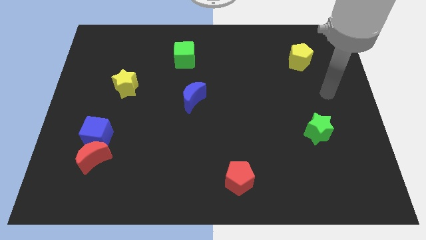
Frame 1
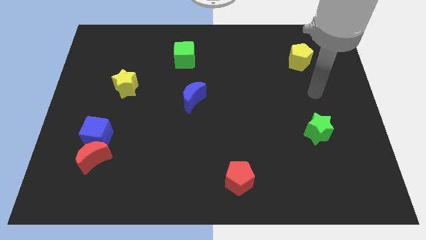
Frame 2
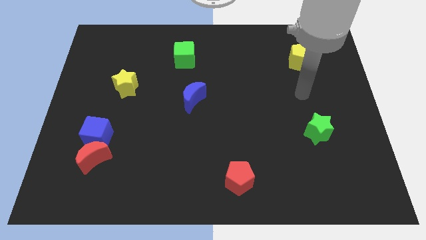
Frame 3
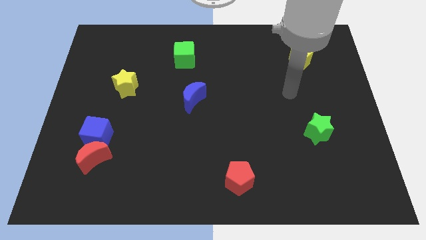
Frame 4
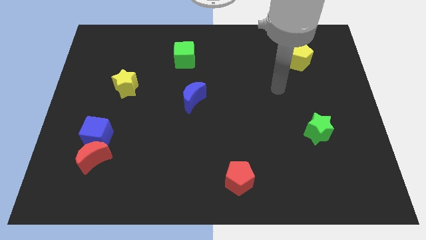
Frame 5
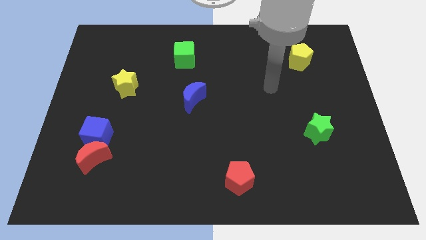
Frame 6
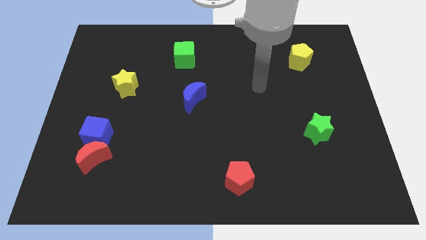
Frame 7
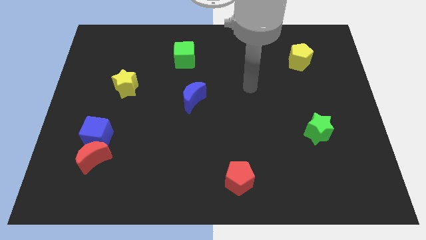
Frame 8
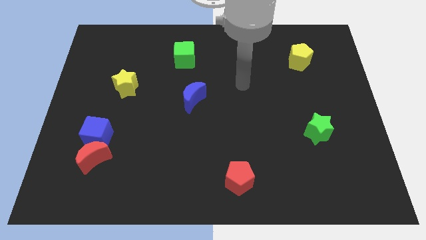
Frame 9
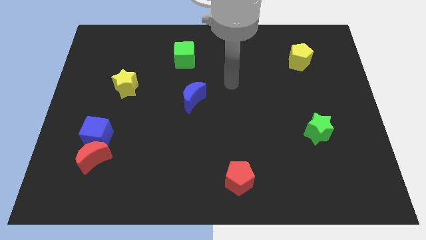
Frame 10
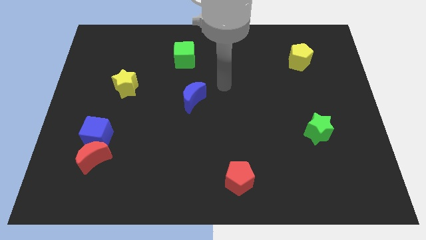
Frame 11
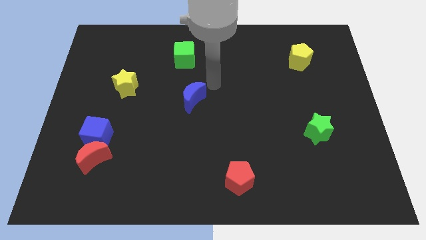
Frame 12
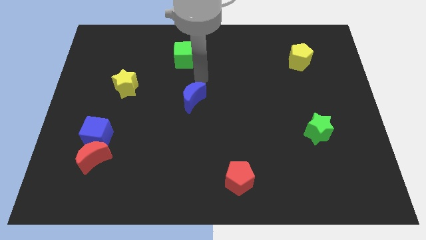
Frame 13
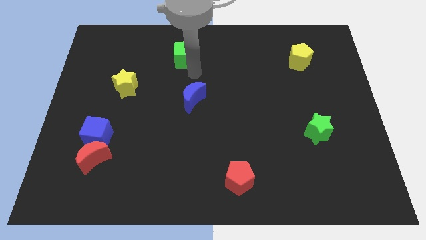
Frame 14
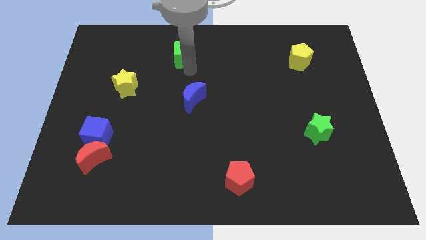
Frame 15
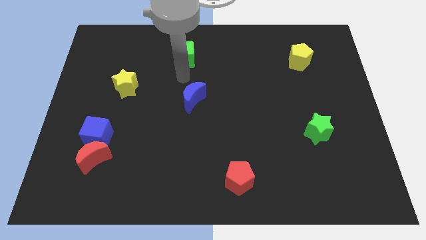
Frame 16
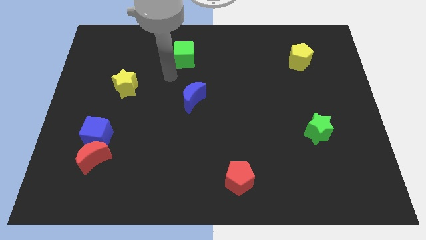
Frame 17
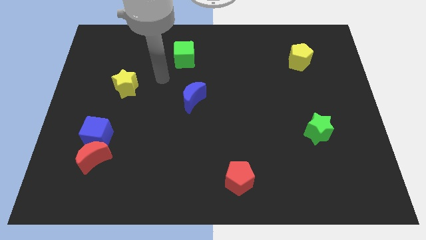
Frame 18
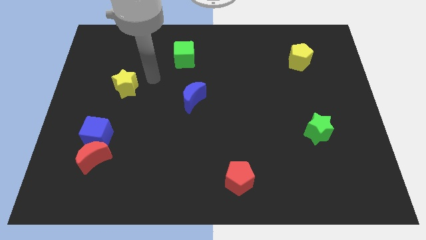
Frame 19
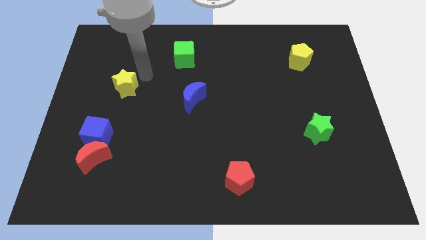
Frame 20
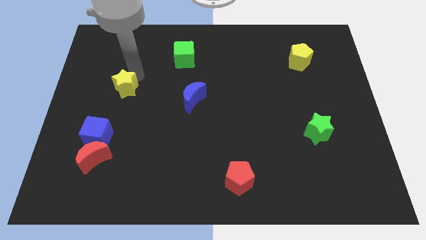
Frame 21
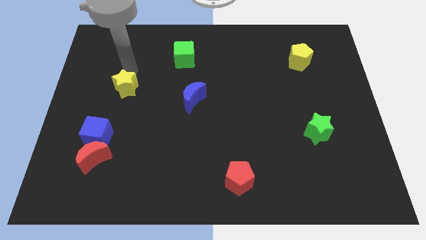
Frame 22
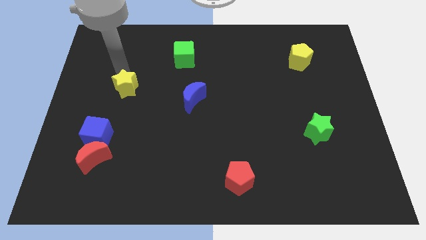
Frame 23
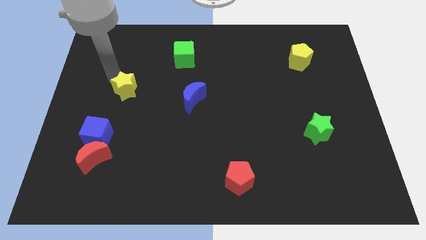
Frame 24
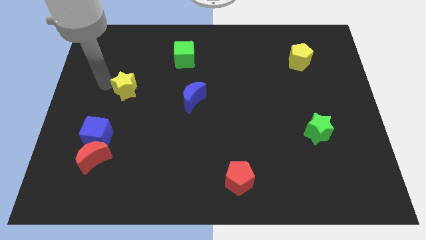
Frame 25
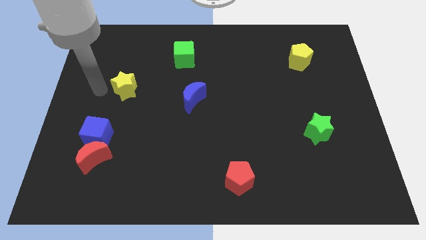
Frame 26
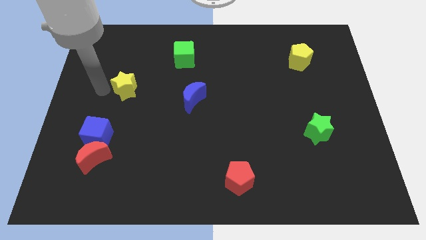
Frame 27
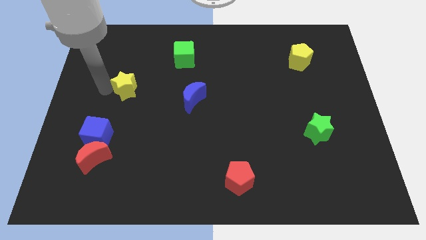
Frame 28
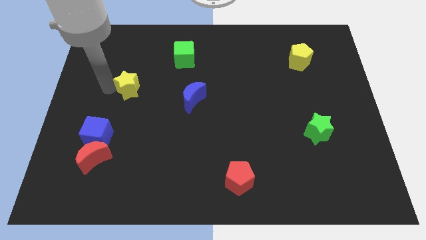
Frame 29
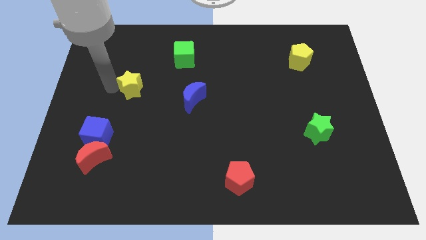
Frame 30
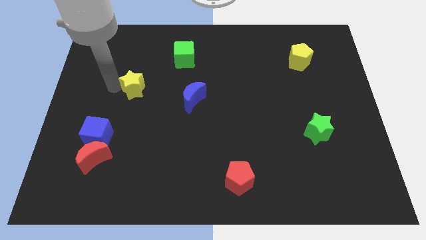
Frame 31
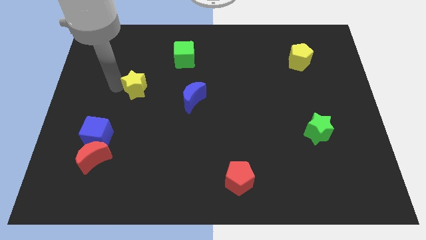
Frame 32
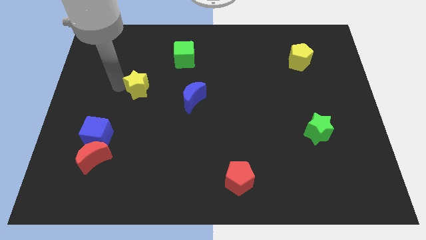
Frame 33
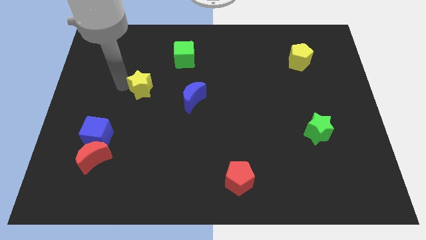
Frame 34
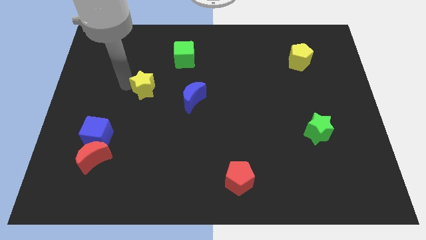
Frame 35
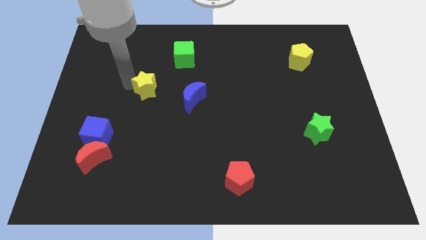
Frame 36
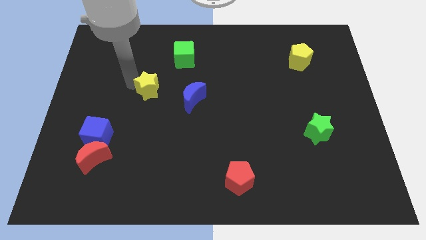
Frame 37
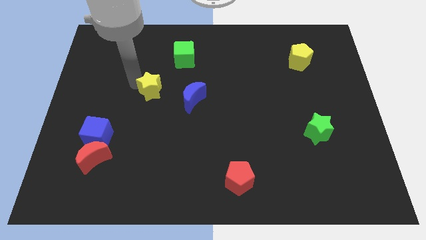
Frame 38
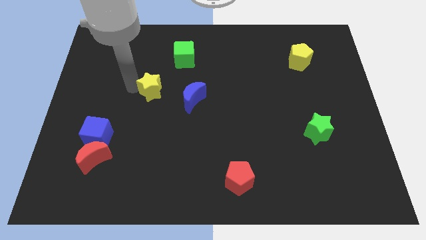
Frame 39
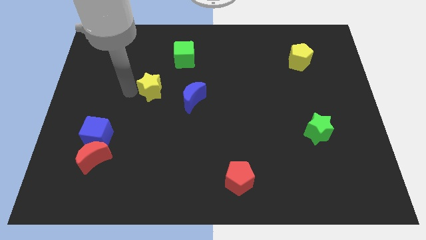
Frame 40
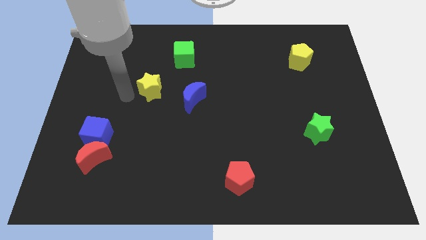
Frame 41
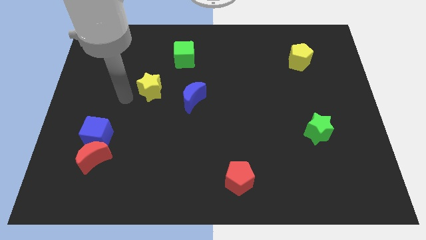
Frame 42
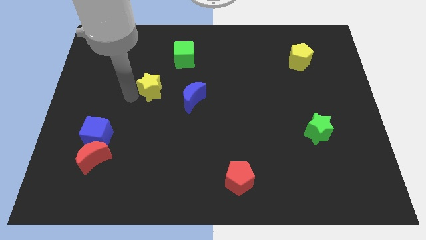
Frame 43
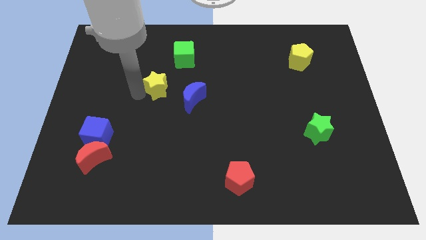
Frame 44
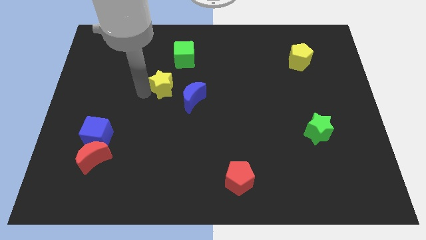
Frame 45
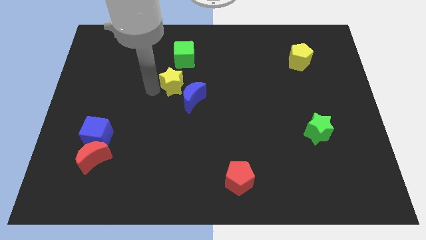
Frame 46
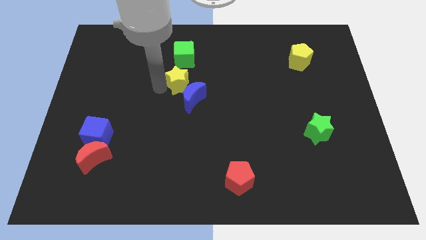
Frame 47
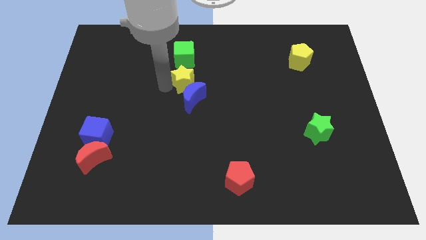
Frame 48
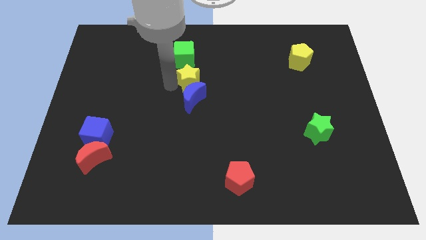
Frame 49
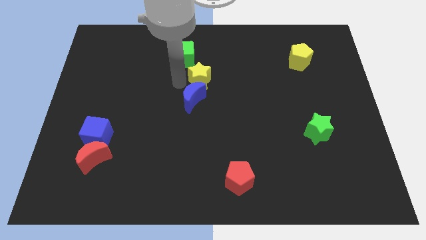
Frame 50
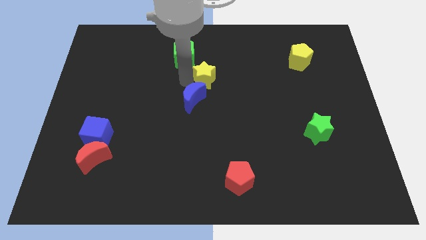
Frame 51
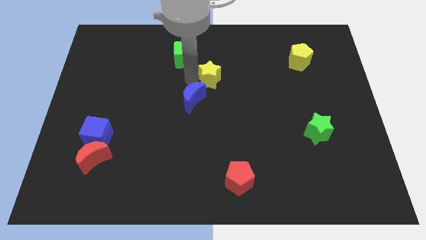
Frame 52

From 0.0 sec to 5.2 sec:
push the yellow star to the right

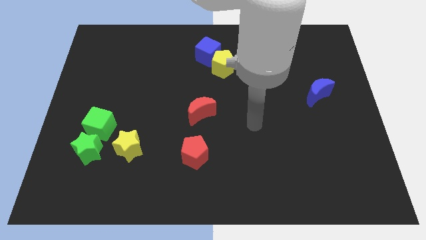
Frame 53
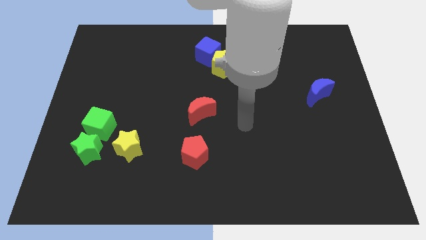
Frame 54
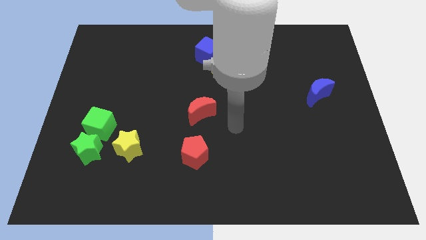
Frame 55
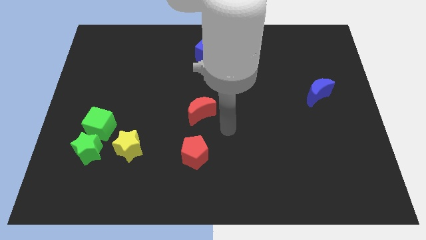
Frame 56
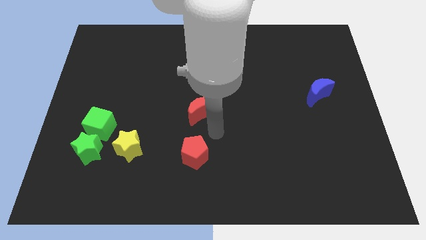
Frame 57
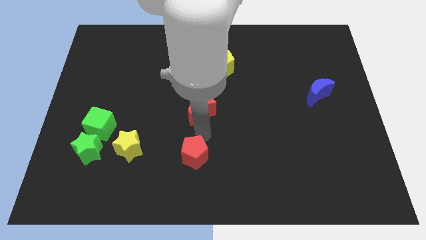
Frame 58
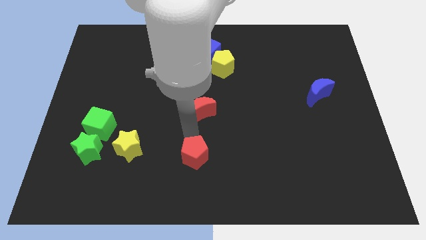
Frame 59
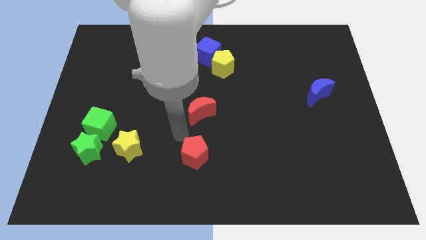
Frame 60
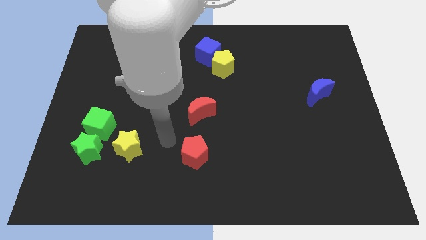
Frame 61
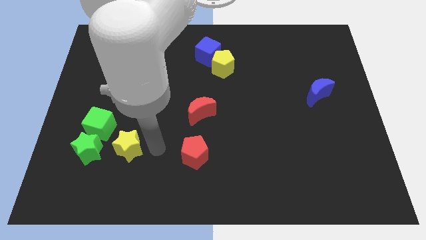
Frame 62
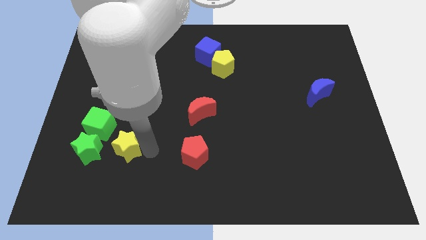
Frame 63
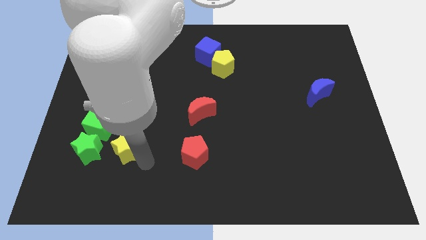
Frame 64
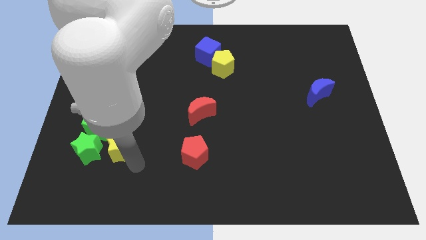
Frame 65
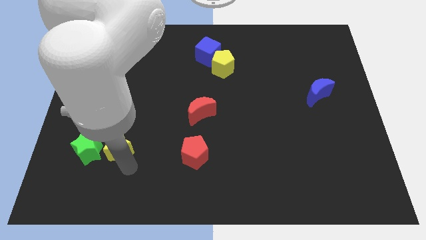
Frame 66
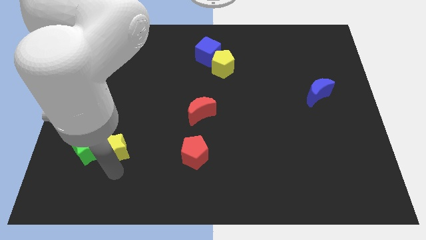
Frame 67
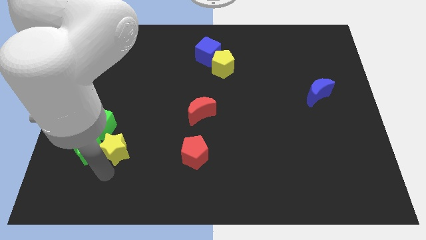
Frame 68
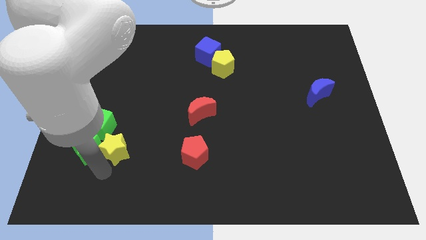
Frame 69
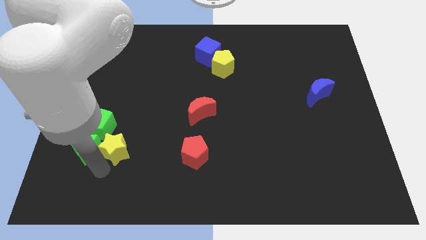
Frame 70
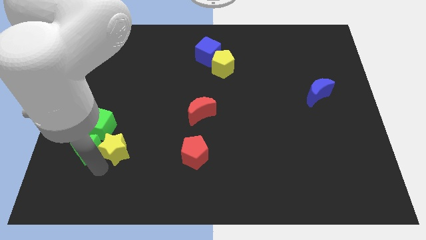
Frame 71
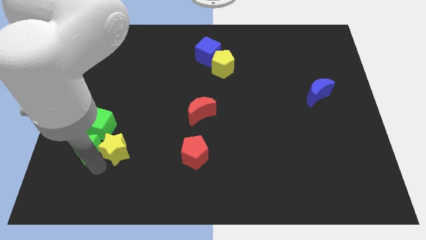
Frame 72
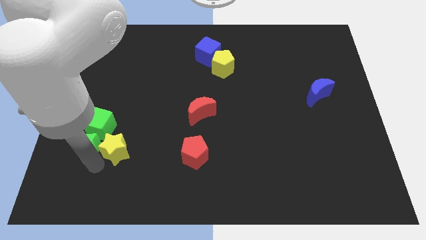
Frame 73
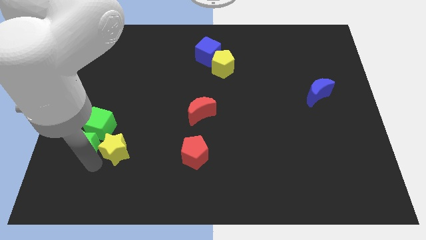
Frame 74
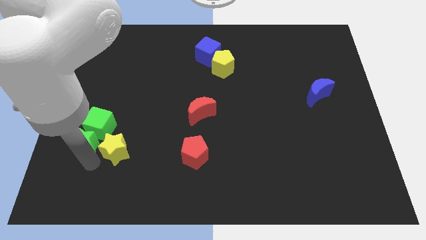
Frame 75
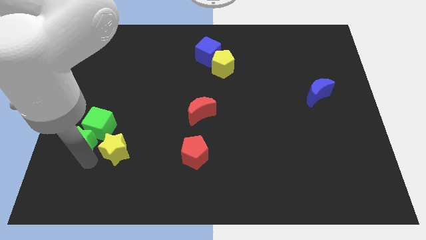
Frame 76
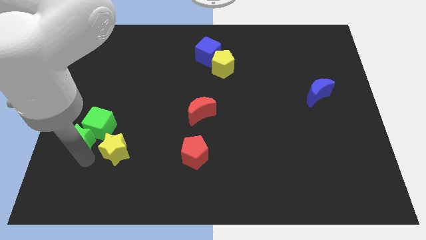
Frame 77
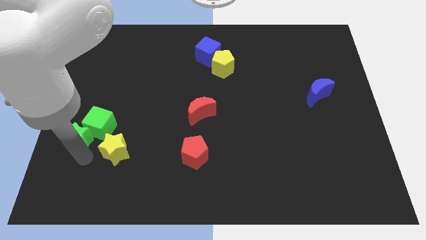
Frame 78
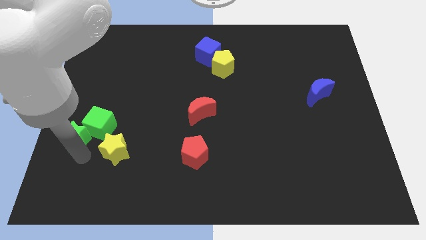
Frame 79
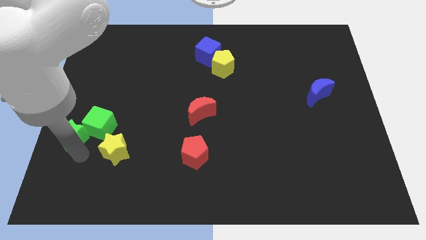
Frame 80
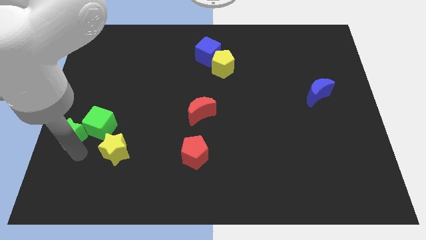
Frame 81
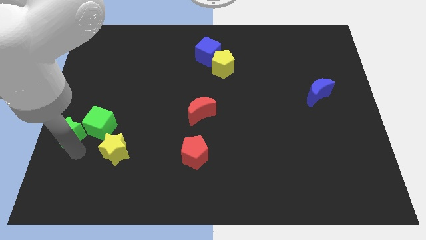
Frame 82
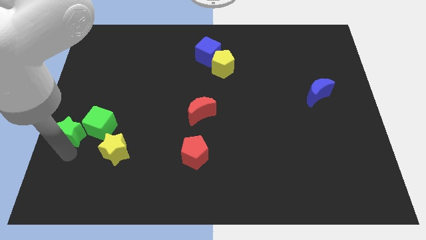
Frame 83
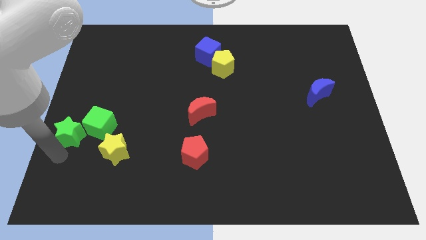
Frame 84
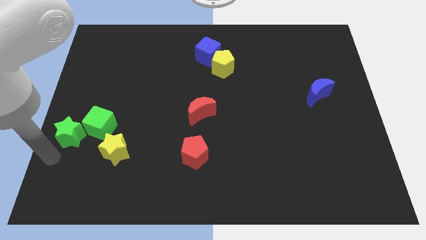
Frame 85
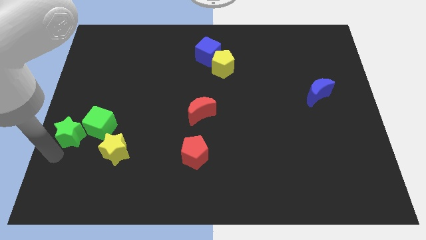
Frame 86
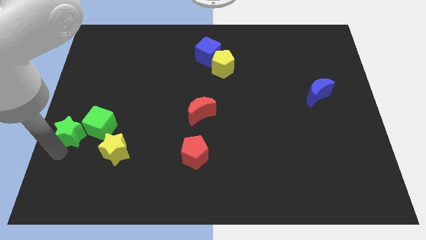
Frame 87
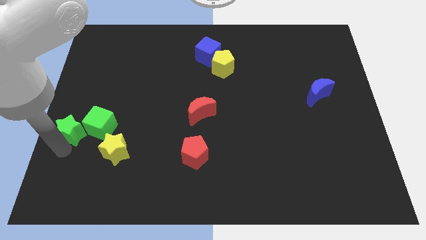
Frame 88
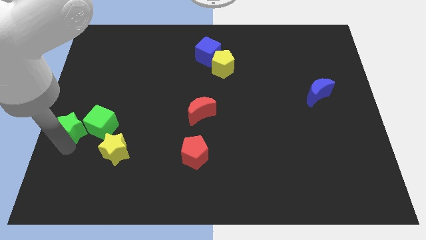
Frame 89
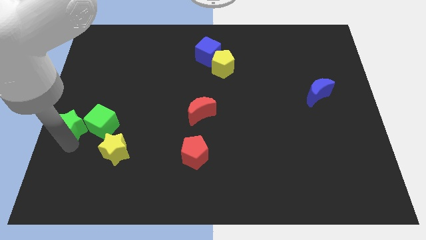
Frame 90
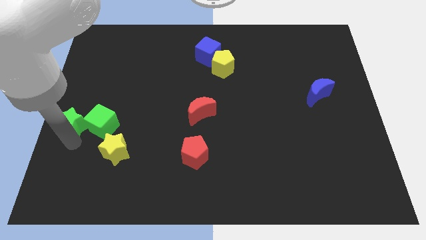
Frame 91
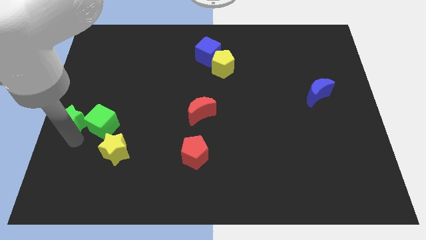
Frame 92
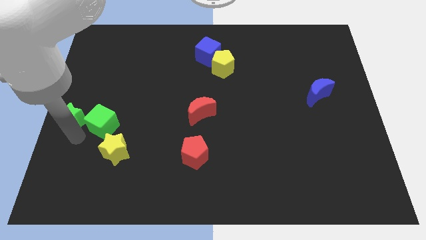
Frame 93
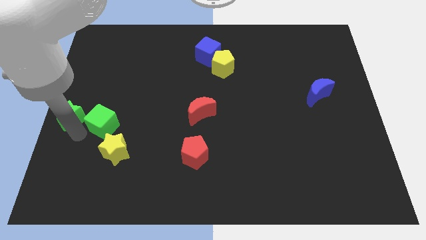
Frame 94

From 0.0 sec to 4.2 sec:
slightly push the green star up
